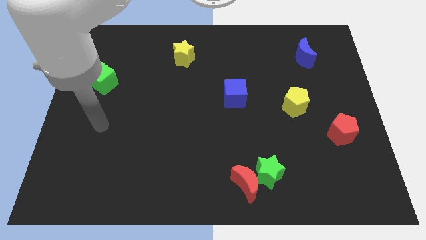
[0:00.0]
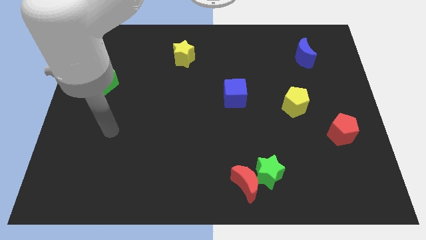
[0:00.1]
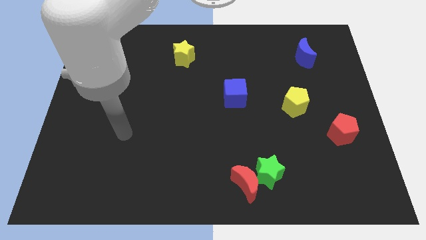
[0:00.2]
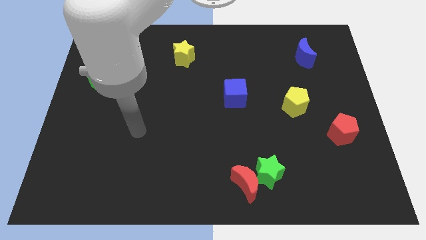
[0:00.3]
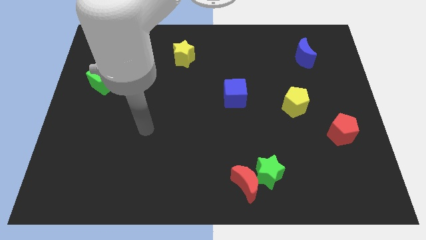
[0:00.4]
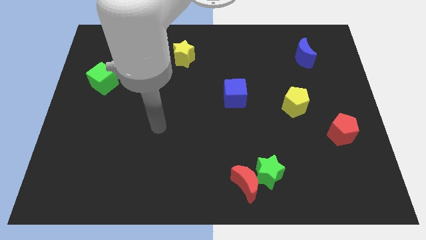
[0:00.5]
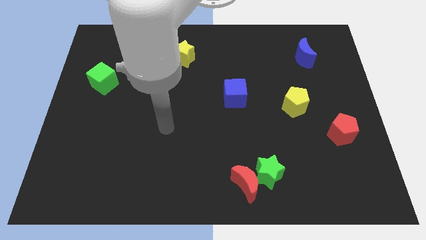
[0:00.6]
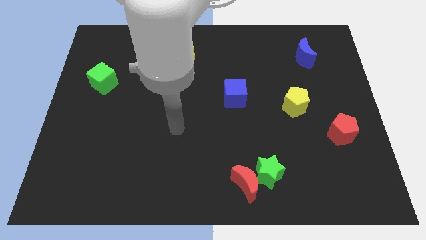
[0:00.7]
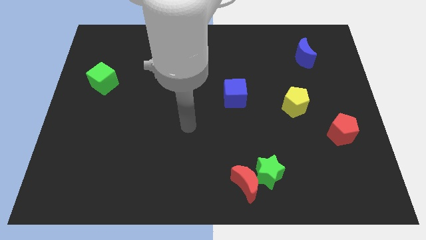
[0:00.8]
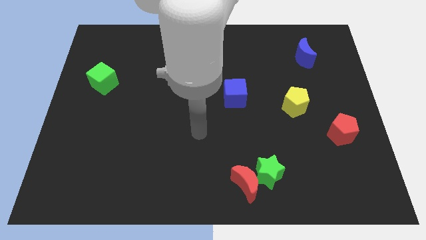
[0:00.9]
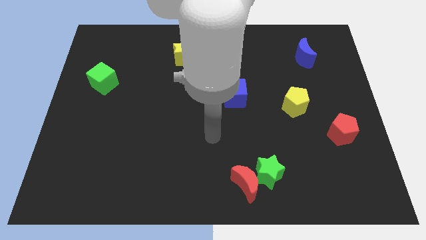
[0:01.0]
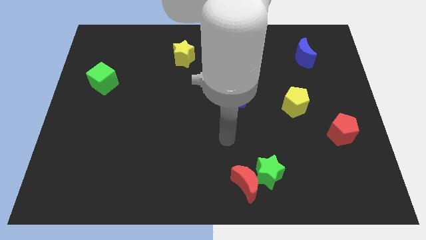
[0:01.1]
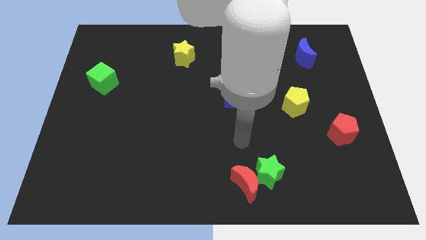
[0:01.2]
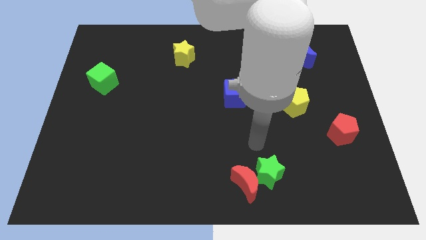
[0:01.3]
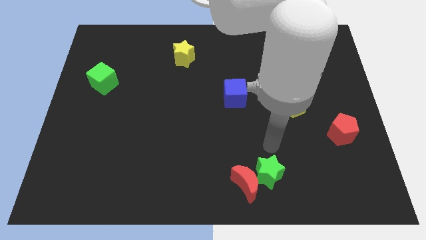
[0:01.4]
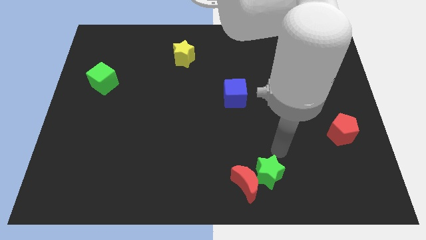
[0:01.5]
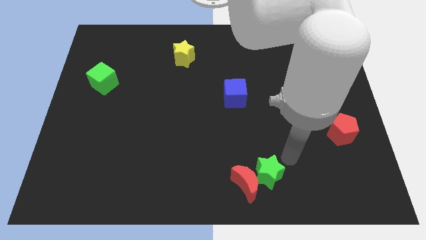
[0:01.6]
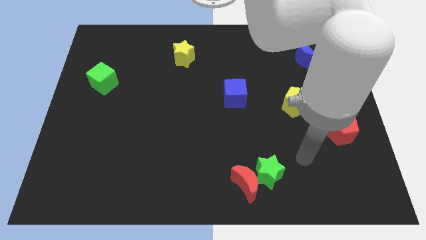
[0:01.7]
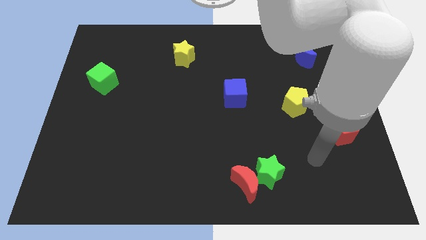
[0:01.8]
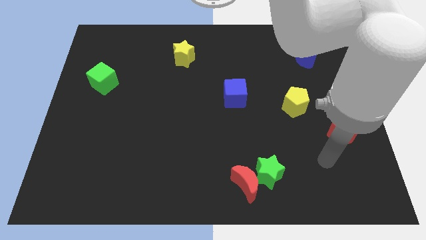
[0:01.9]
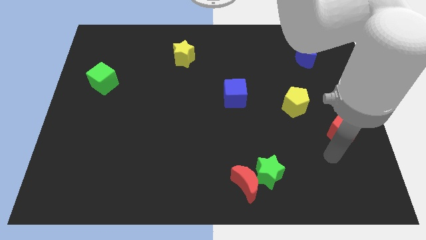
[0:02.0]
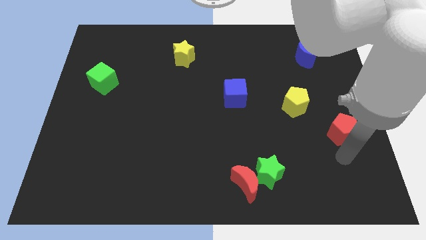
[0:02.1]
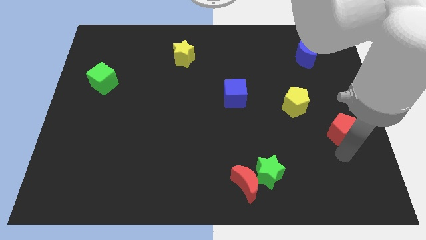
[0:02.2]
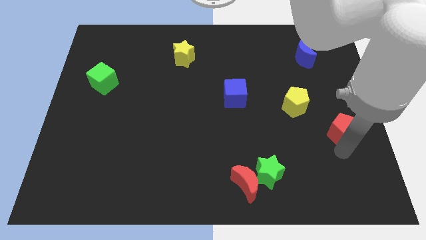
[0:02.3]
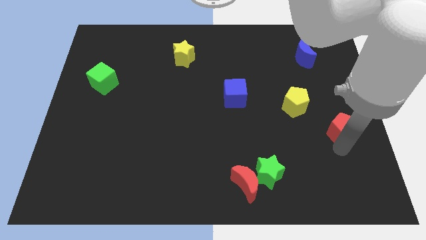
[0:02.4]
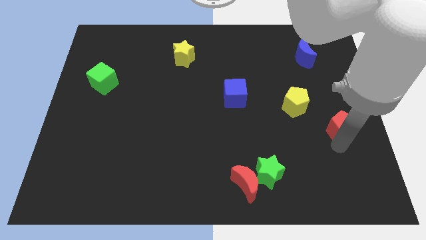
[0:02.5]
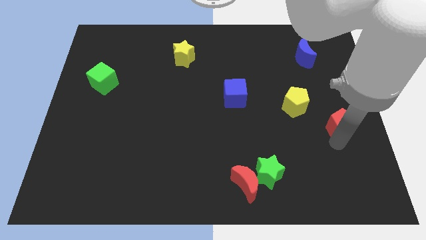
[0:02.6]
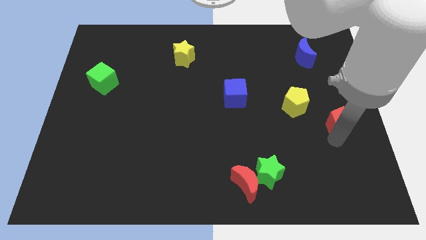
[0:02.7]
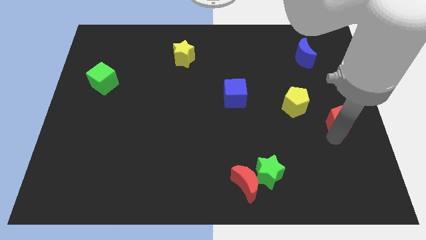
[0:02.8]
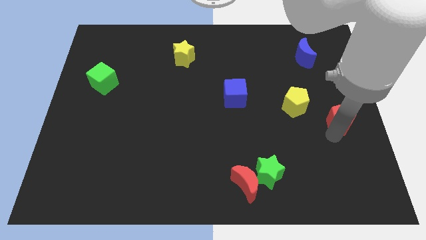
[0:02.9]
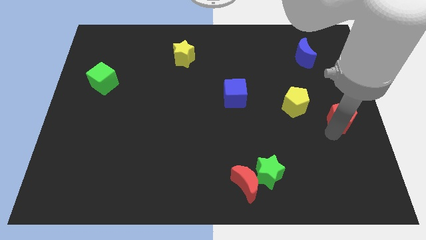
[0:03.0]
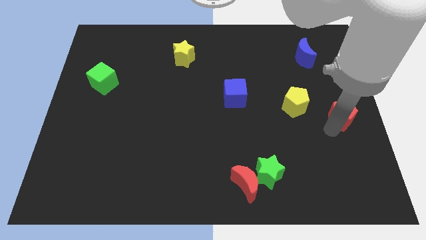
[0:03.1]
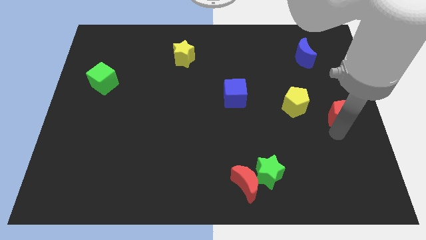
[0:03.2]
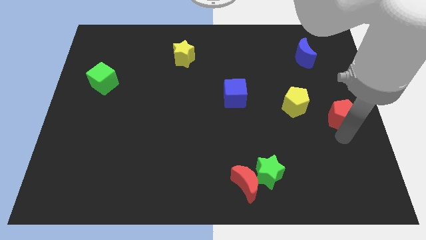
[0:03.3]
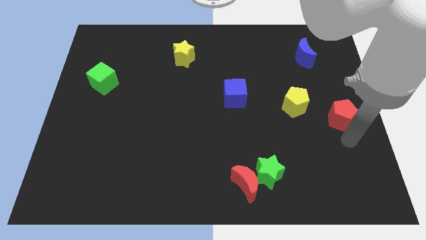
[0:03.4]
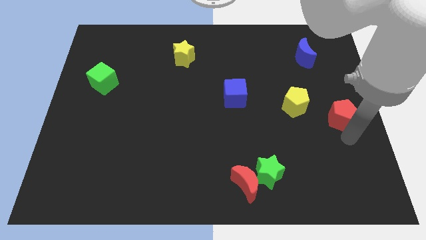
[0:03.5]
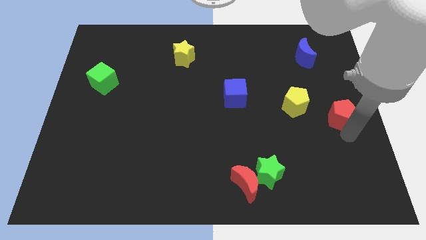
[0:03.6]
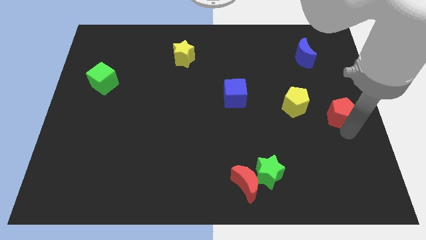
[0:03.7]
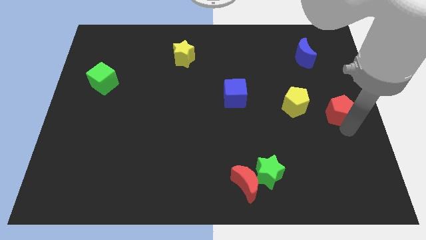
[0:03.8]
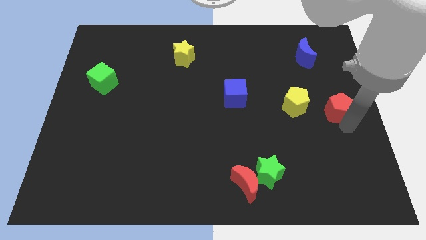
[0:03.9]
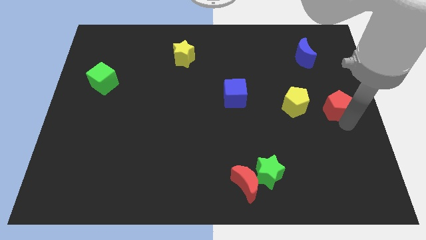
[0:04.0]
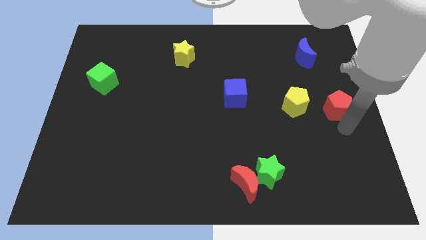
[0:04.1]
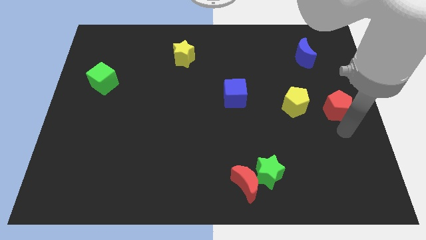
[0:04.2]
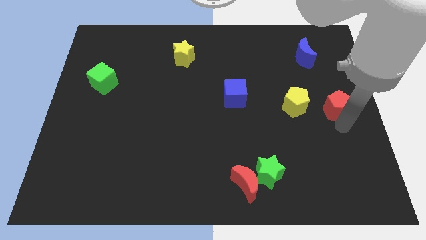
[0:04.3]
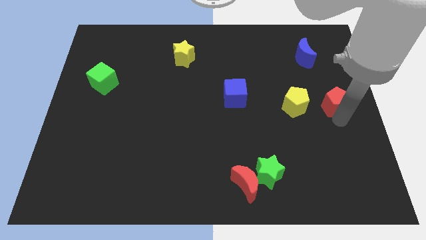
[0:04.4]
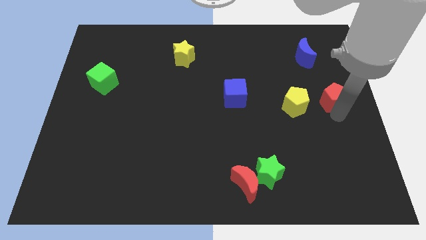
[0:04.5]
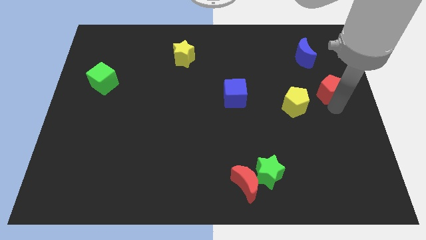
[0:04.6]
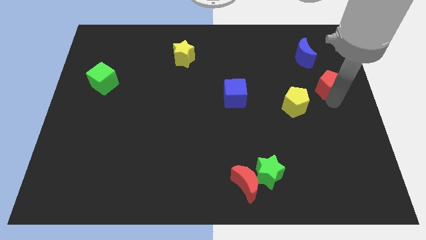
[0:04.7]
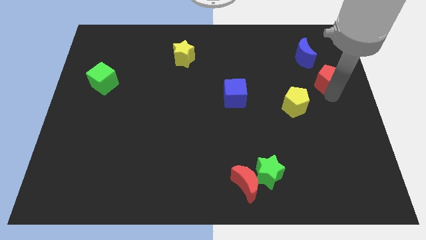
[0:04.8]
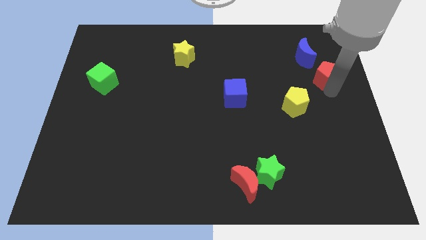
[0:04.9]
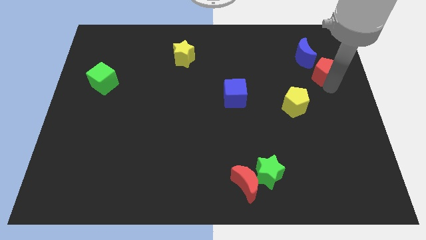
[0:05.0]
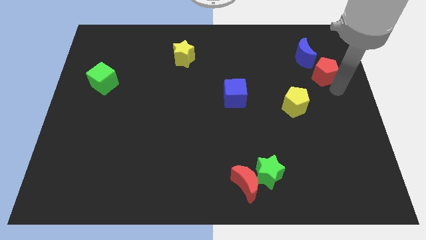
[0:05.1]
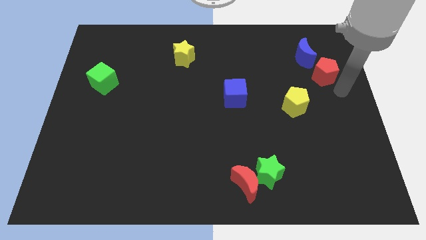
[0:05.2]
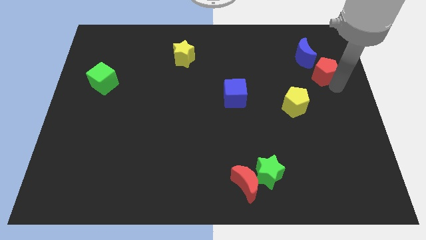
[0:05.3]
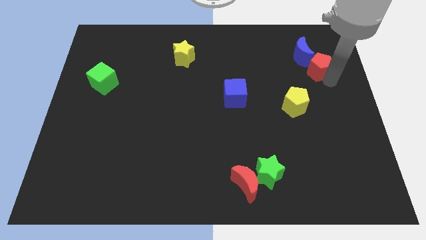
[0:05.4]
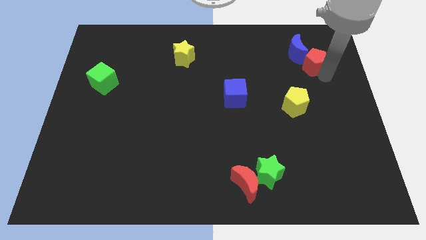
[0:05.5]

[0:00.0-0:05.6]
slide the red pentagon close to the blue moon

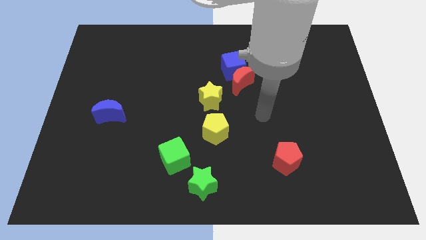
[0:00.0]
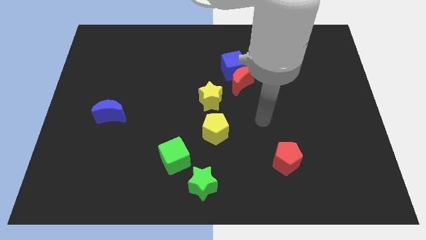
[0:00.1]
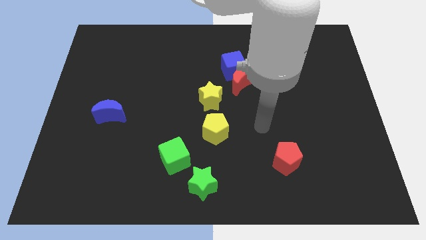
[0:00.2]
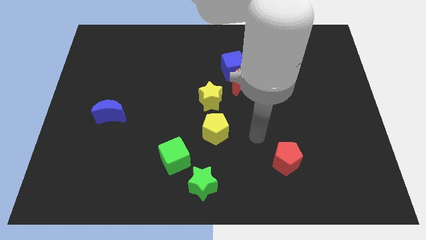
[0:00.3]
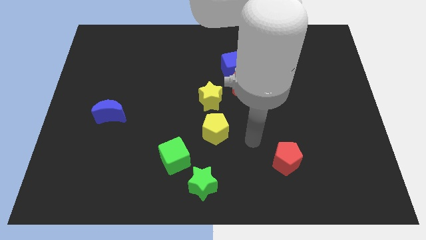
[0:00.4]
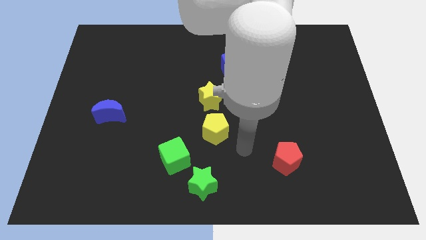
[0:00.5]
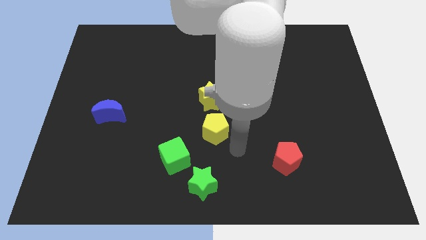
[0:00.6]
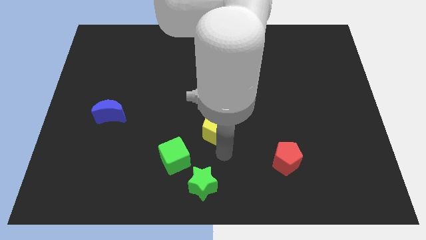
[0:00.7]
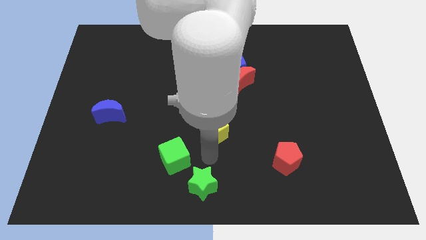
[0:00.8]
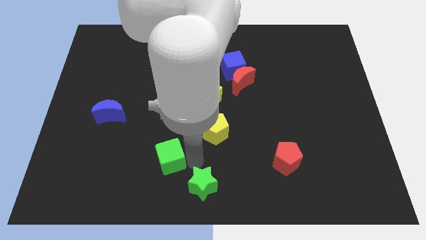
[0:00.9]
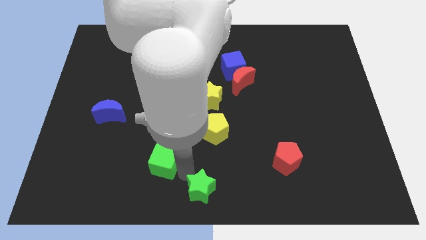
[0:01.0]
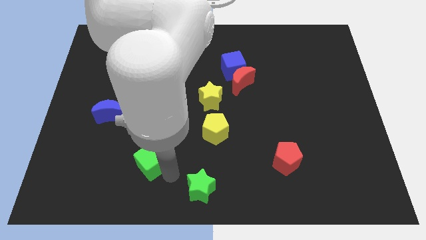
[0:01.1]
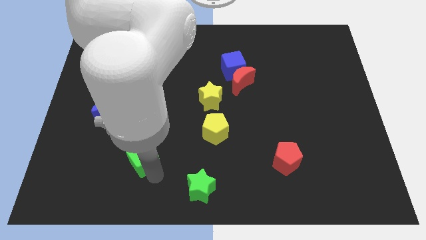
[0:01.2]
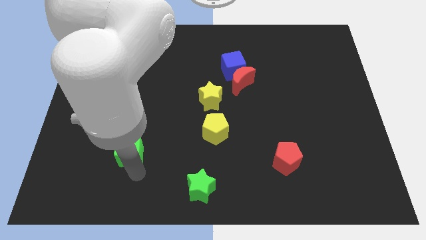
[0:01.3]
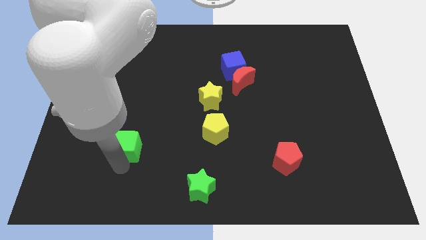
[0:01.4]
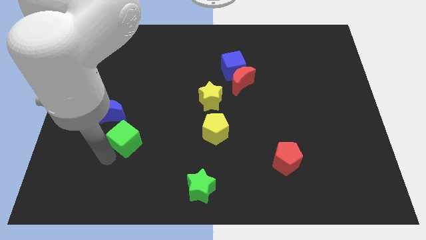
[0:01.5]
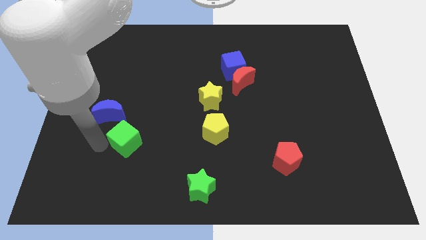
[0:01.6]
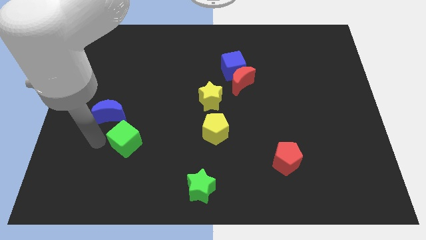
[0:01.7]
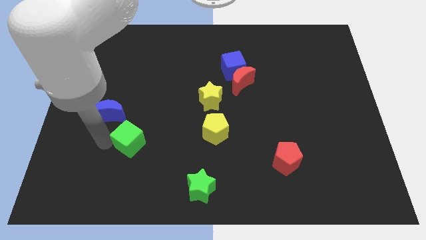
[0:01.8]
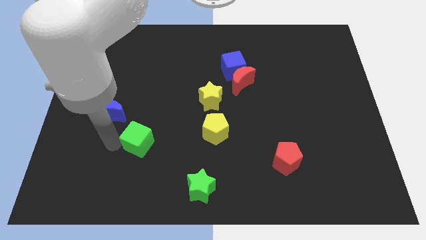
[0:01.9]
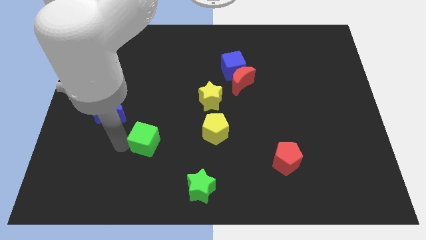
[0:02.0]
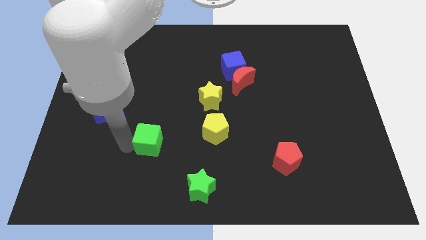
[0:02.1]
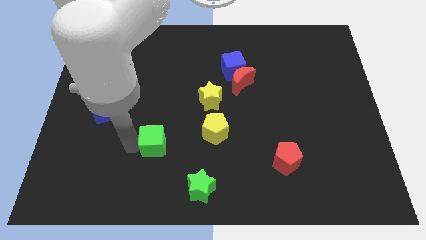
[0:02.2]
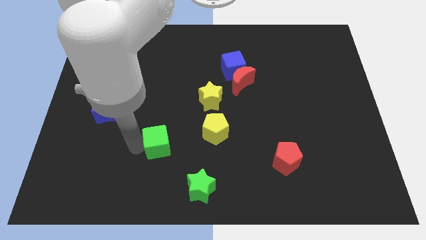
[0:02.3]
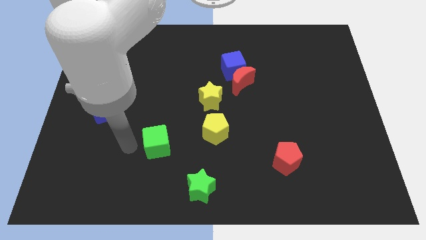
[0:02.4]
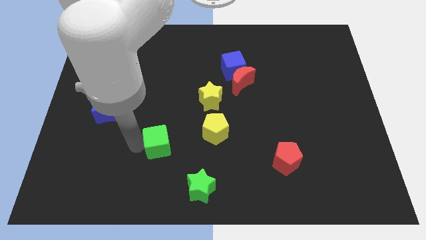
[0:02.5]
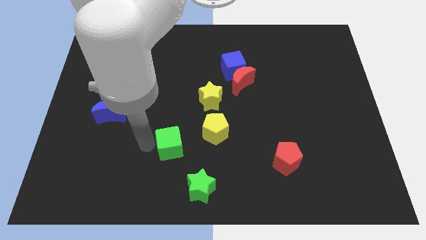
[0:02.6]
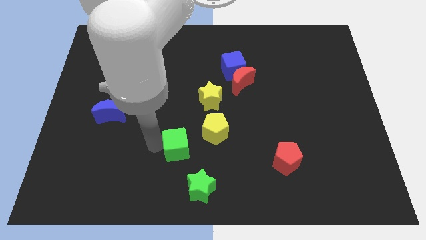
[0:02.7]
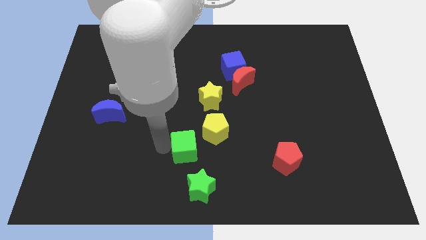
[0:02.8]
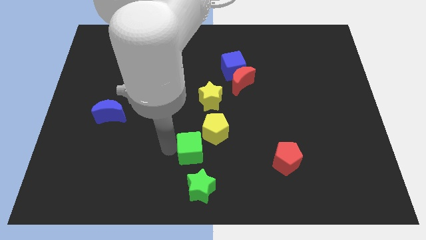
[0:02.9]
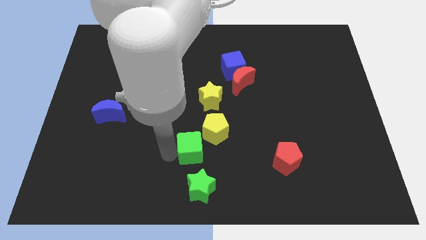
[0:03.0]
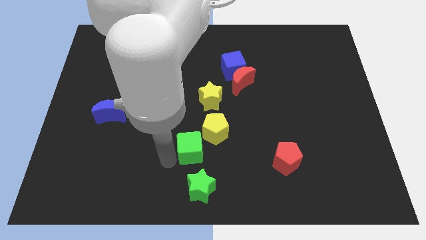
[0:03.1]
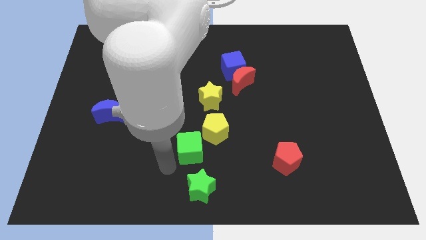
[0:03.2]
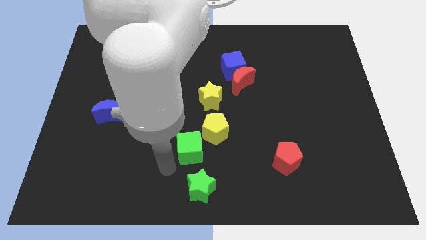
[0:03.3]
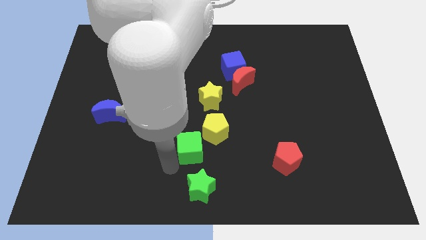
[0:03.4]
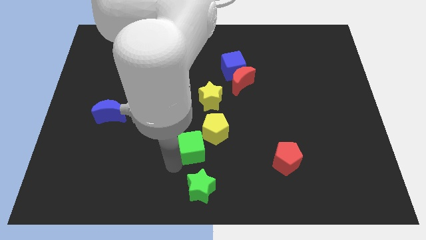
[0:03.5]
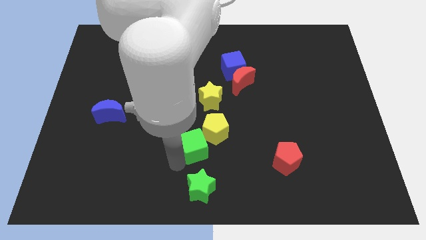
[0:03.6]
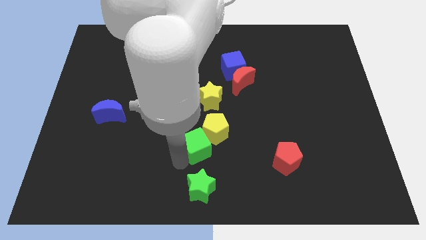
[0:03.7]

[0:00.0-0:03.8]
push the green cube towards the yellow pentagon
